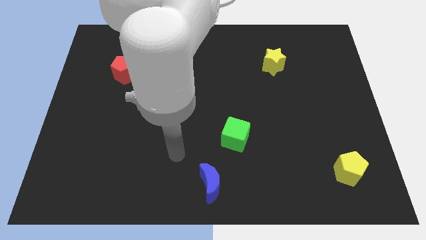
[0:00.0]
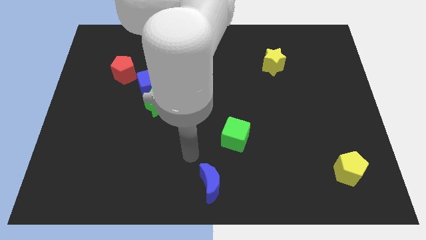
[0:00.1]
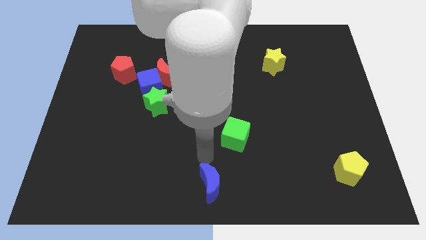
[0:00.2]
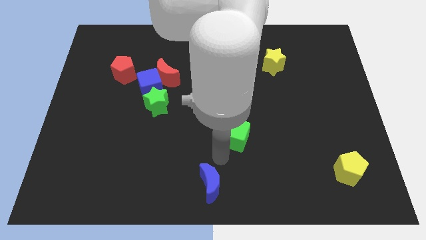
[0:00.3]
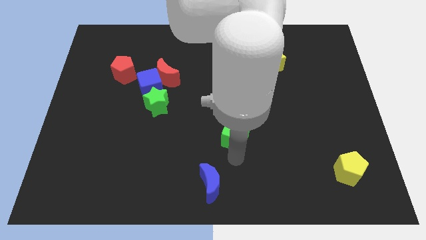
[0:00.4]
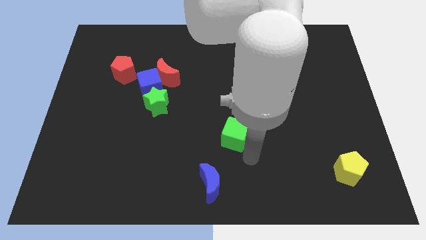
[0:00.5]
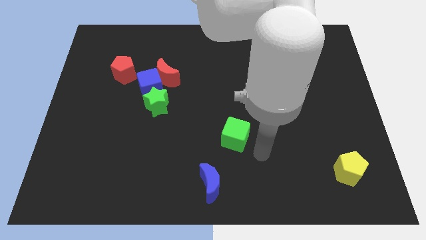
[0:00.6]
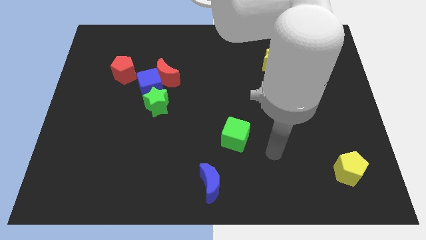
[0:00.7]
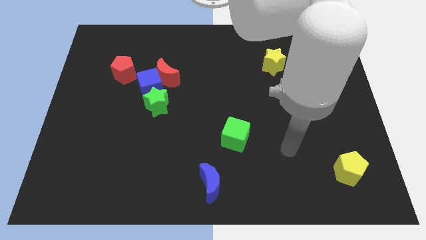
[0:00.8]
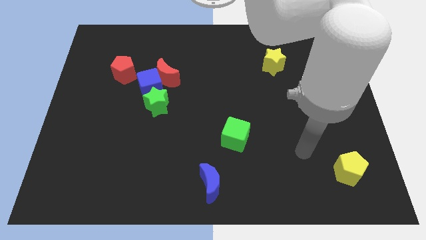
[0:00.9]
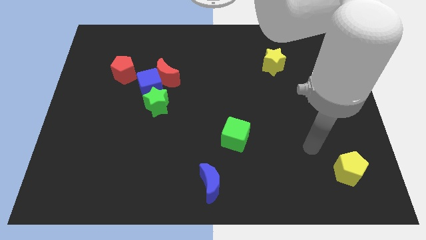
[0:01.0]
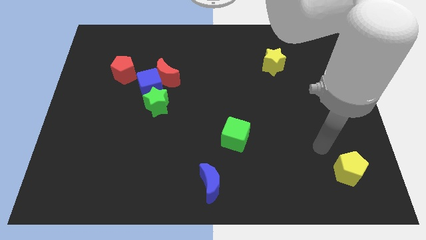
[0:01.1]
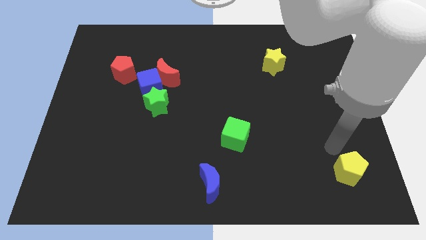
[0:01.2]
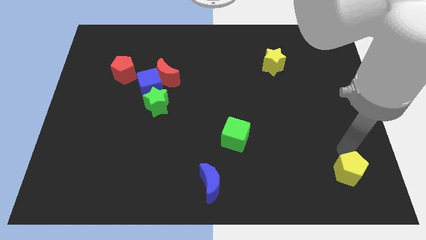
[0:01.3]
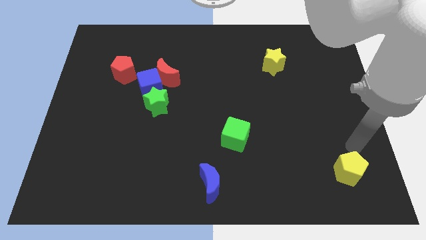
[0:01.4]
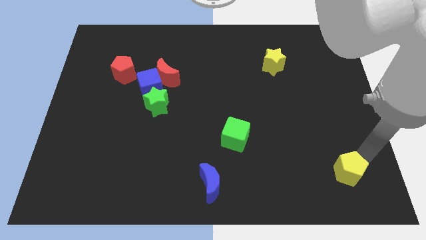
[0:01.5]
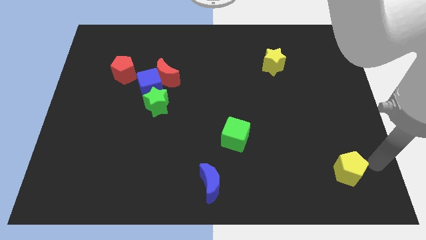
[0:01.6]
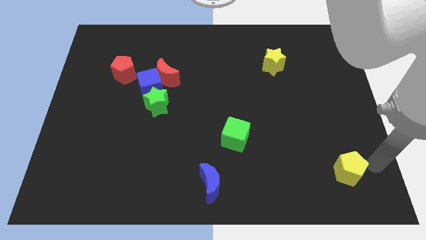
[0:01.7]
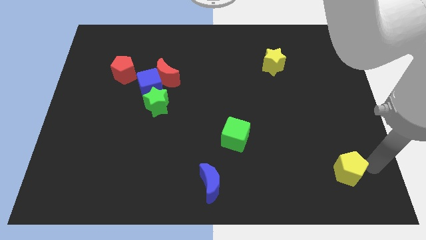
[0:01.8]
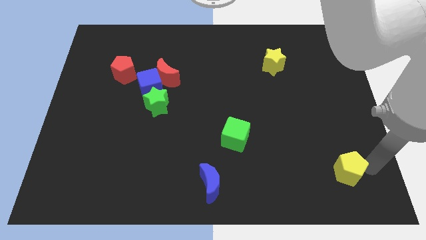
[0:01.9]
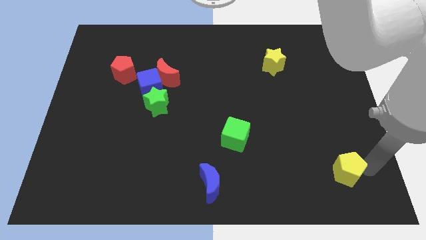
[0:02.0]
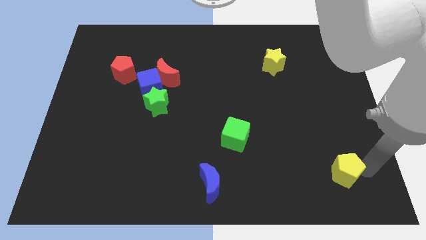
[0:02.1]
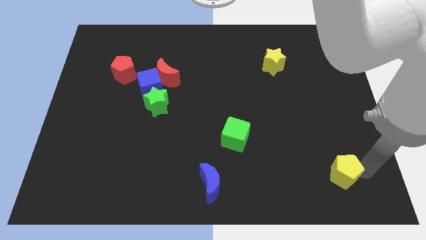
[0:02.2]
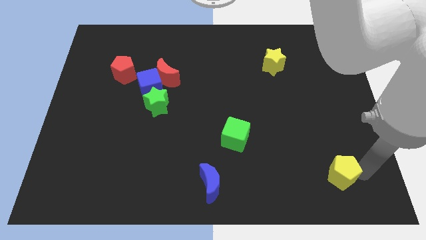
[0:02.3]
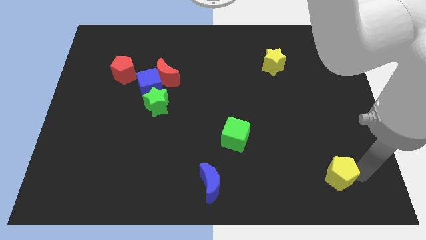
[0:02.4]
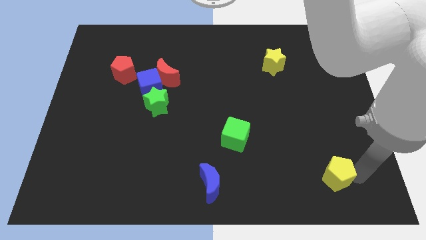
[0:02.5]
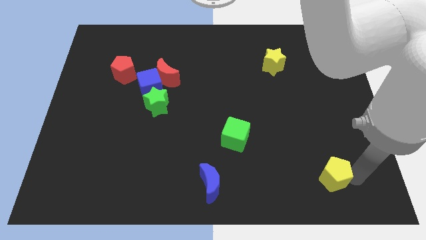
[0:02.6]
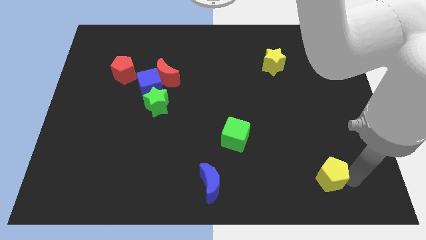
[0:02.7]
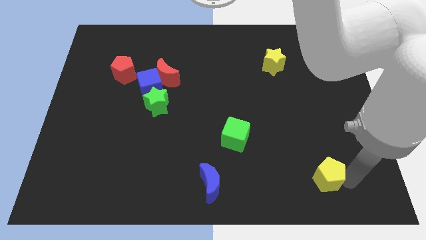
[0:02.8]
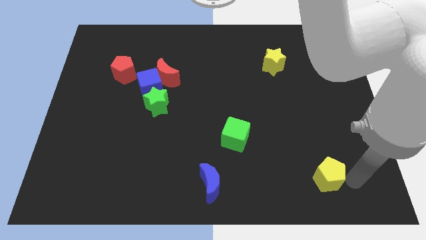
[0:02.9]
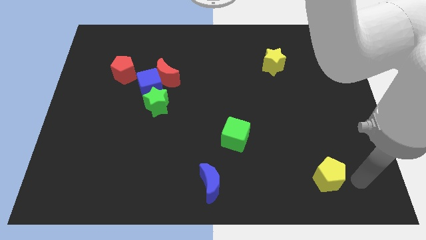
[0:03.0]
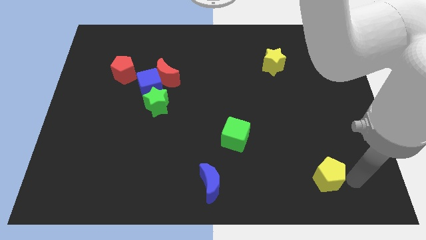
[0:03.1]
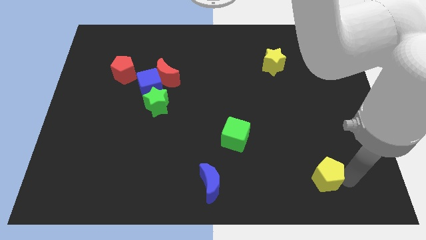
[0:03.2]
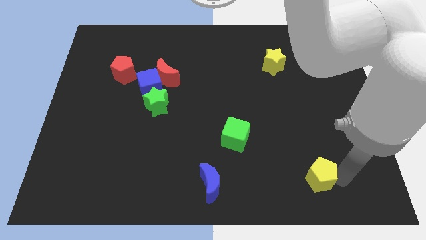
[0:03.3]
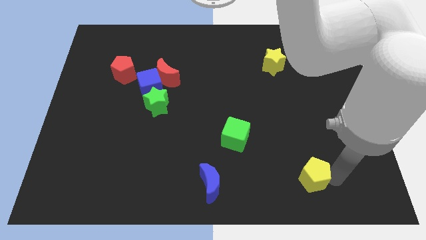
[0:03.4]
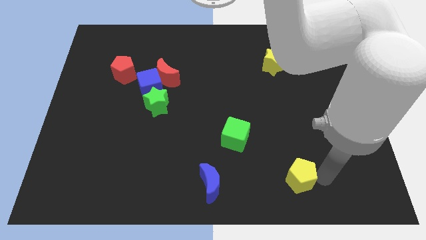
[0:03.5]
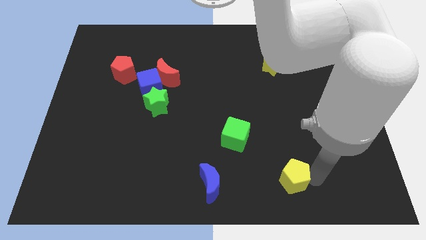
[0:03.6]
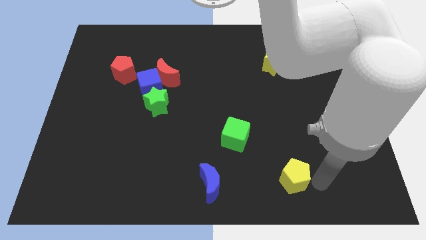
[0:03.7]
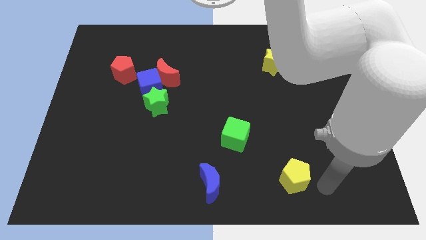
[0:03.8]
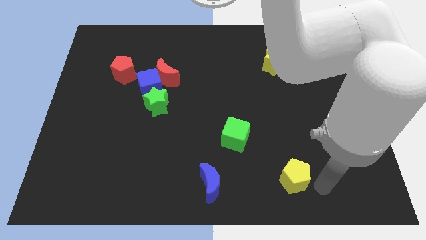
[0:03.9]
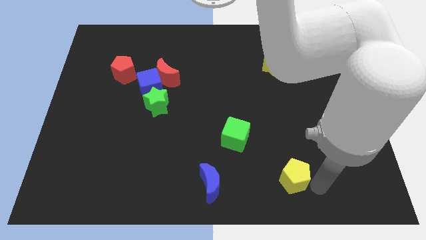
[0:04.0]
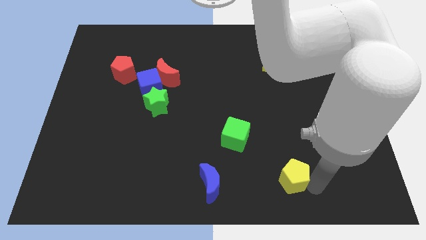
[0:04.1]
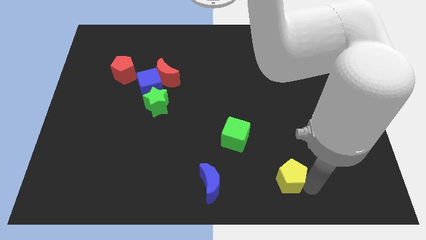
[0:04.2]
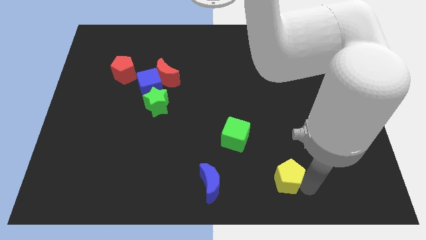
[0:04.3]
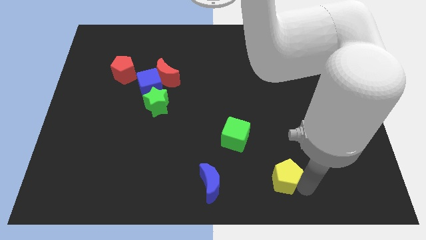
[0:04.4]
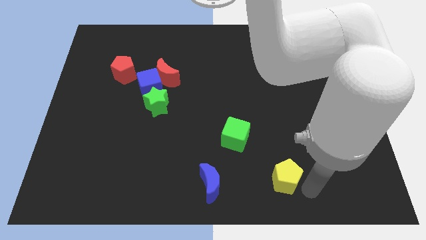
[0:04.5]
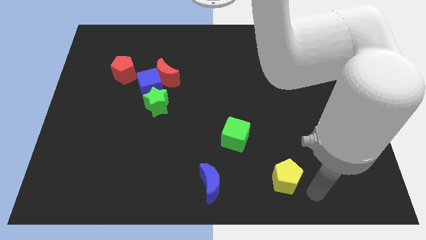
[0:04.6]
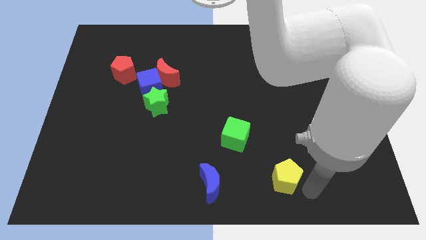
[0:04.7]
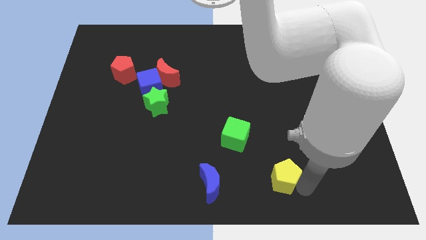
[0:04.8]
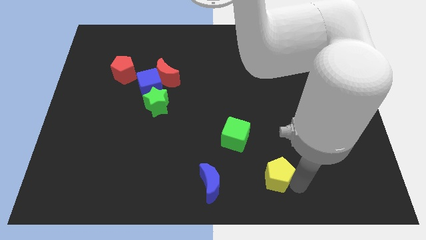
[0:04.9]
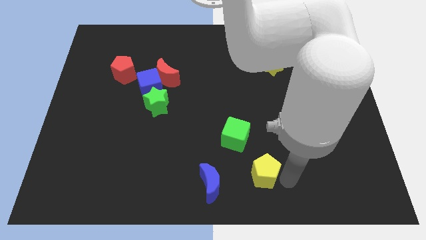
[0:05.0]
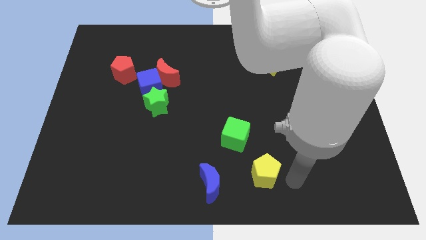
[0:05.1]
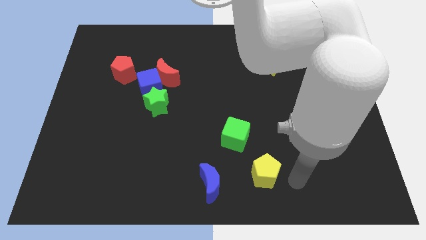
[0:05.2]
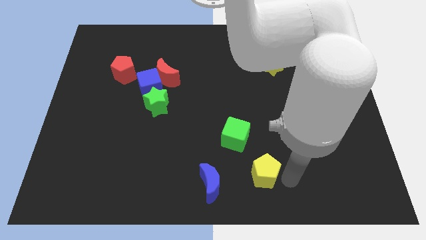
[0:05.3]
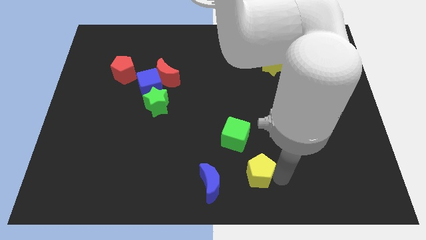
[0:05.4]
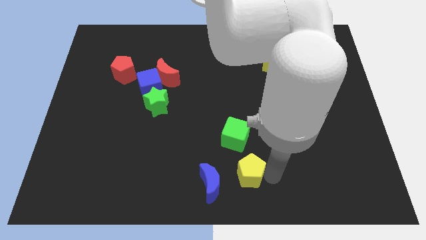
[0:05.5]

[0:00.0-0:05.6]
slide the yellow pentagon to the left

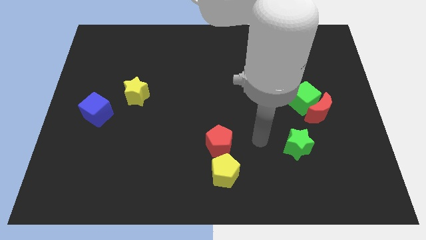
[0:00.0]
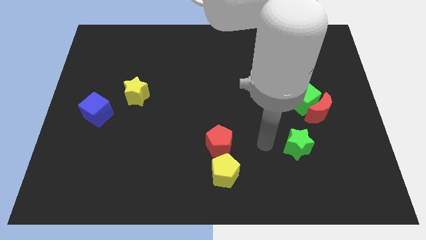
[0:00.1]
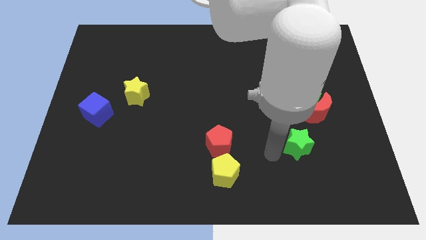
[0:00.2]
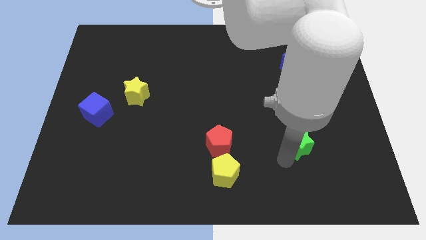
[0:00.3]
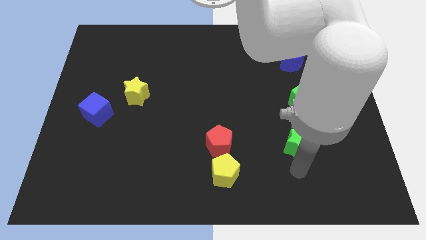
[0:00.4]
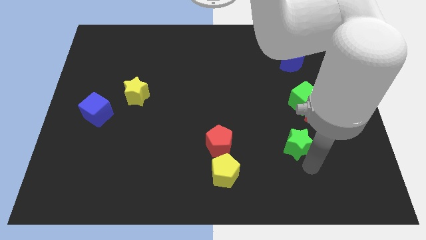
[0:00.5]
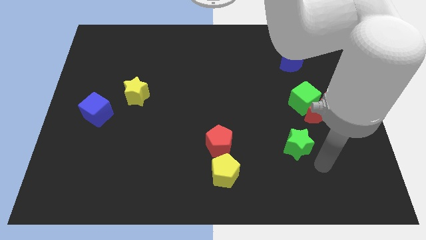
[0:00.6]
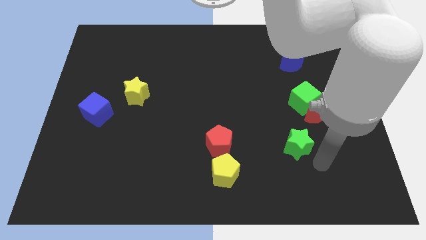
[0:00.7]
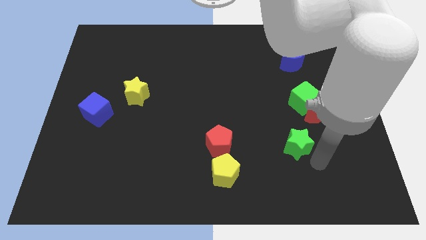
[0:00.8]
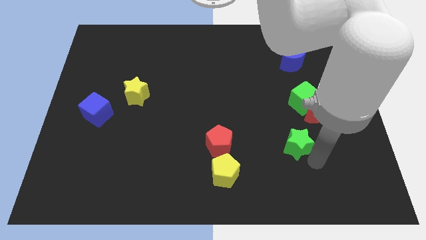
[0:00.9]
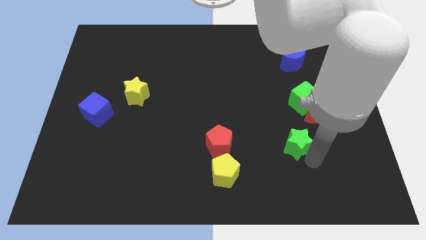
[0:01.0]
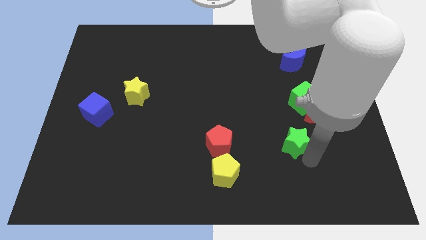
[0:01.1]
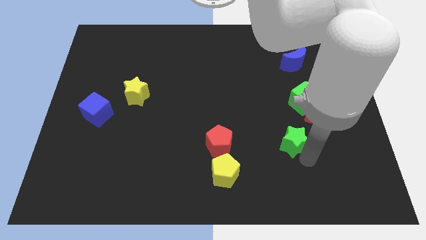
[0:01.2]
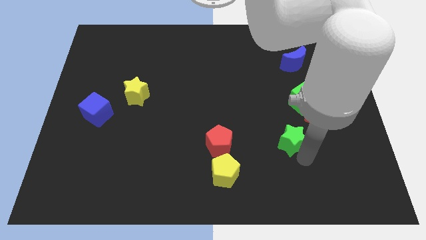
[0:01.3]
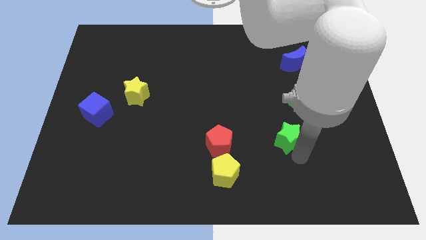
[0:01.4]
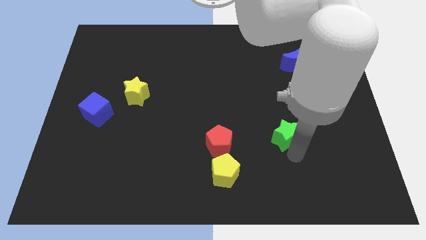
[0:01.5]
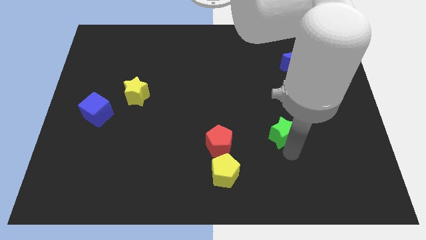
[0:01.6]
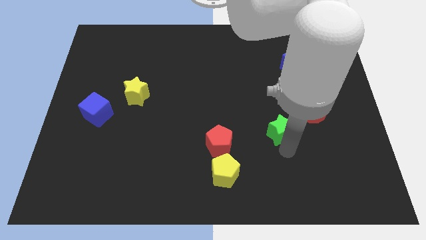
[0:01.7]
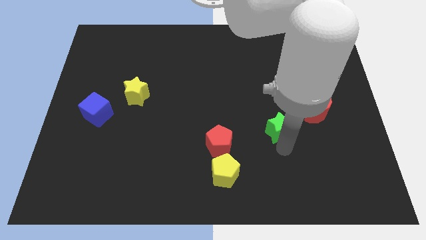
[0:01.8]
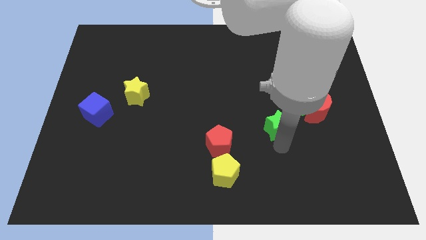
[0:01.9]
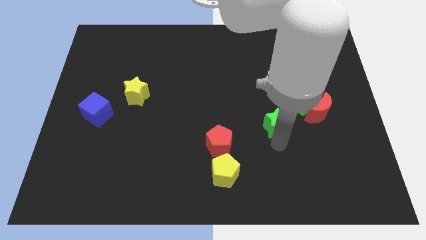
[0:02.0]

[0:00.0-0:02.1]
slightly move the green star upwards and to the left

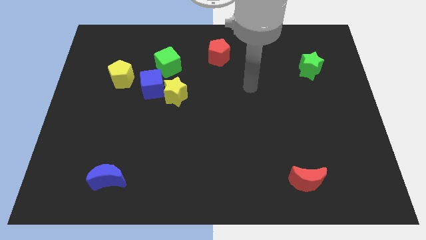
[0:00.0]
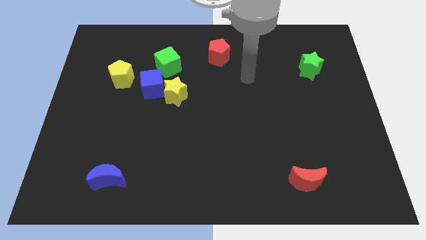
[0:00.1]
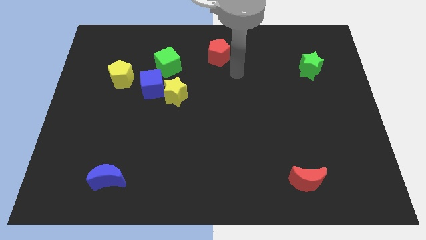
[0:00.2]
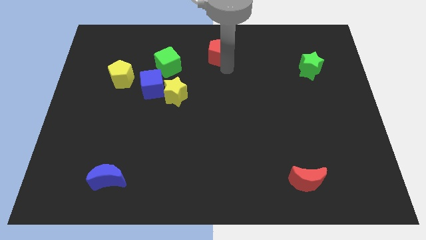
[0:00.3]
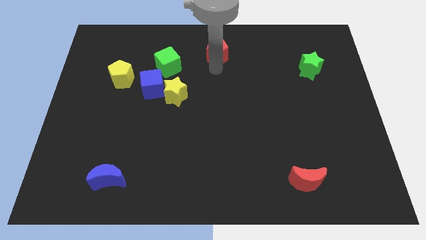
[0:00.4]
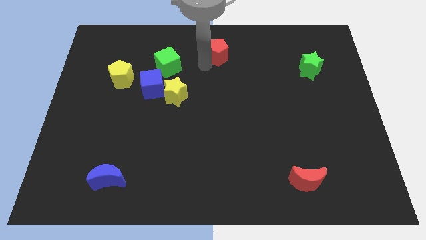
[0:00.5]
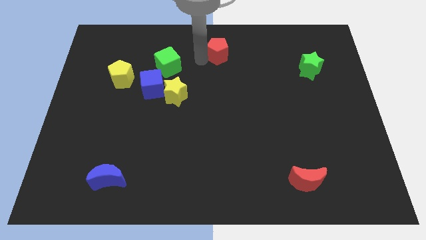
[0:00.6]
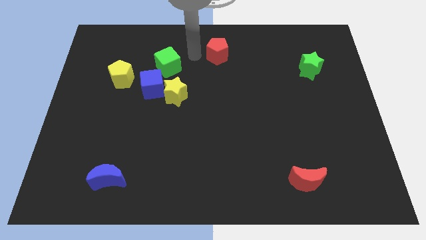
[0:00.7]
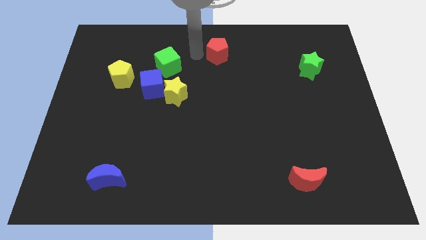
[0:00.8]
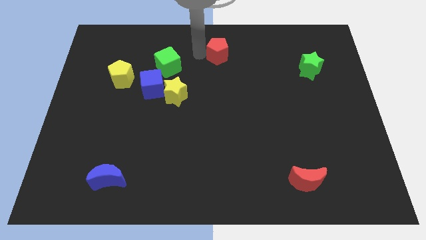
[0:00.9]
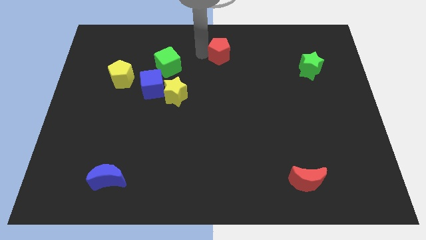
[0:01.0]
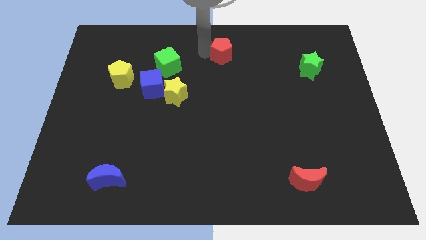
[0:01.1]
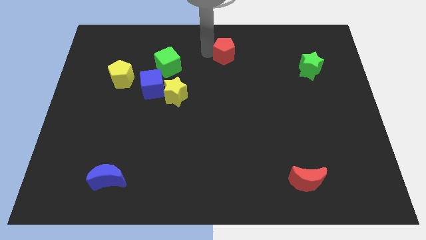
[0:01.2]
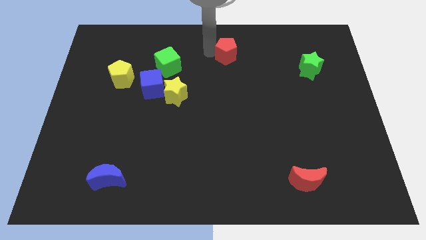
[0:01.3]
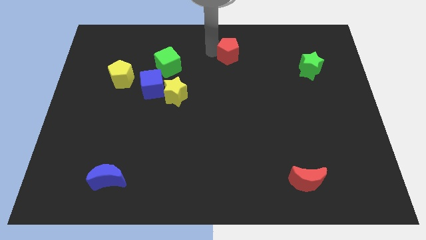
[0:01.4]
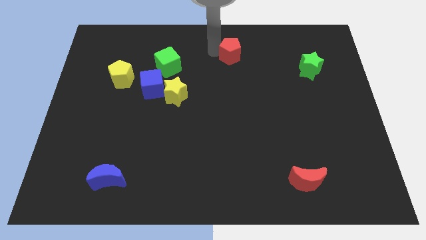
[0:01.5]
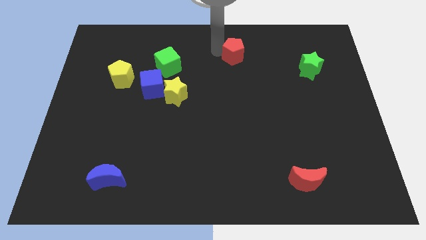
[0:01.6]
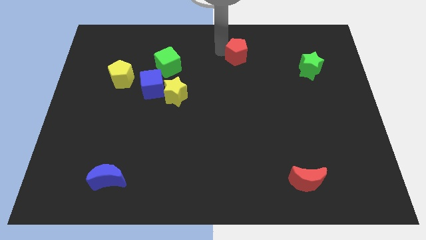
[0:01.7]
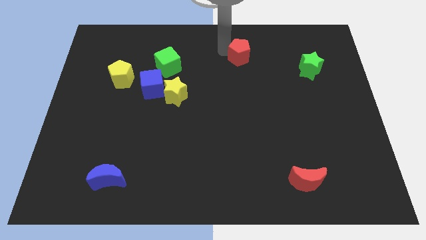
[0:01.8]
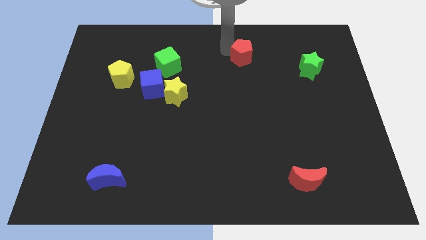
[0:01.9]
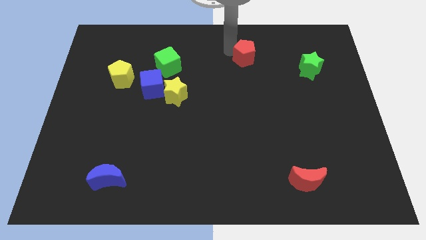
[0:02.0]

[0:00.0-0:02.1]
push the red pentagon right a little
